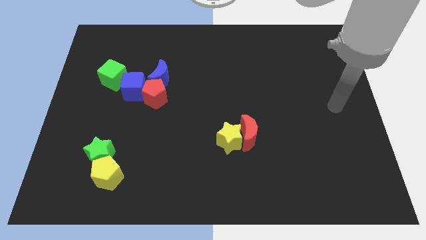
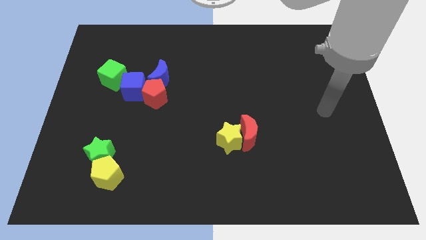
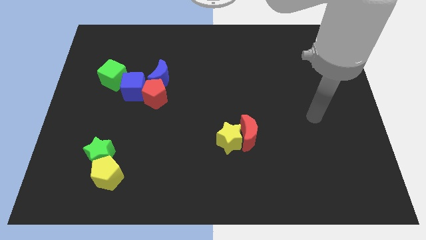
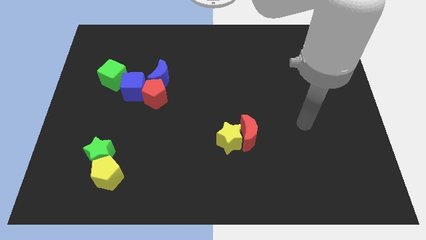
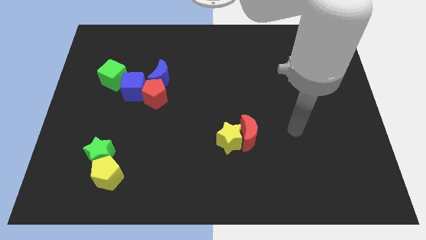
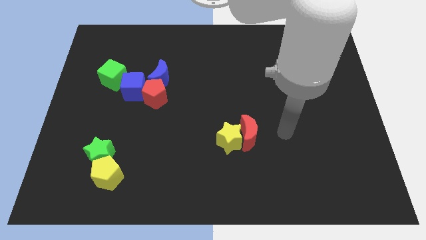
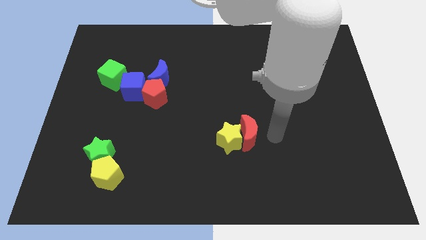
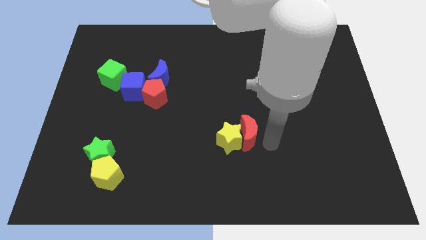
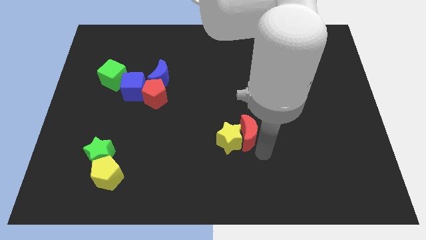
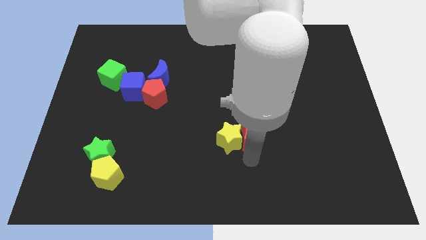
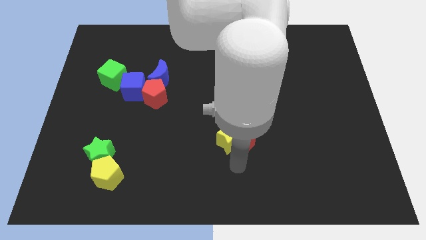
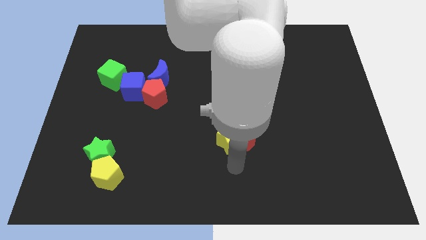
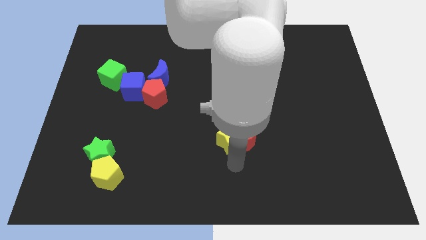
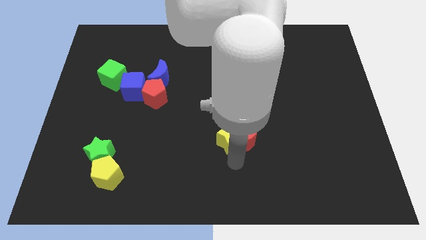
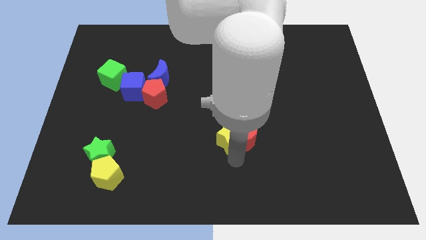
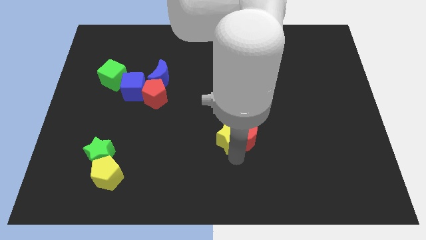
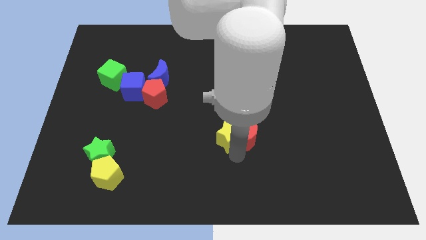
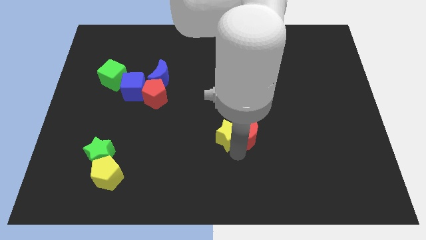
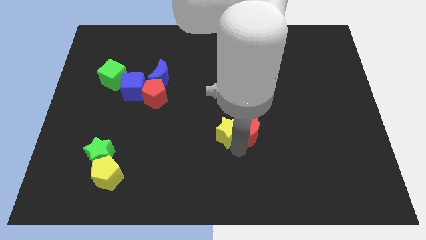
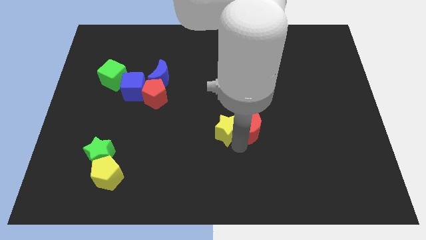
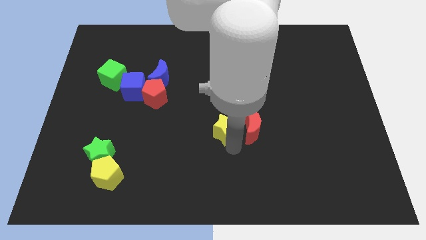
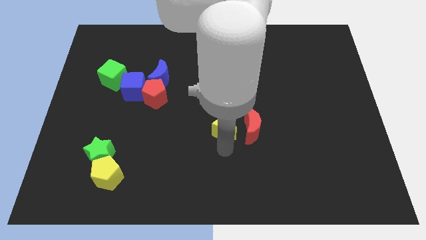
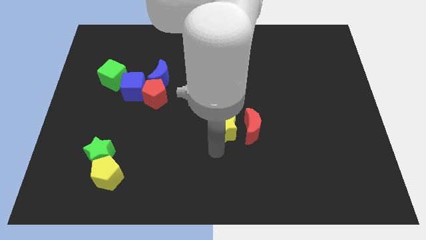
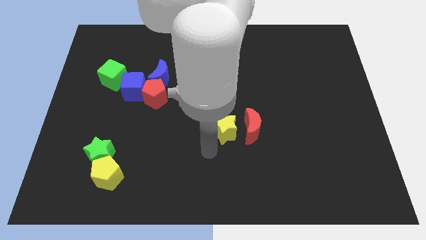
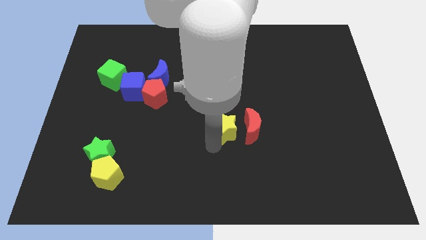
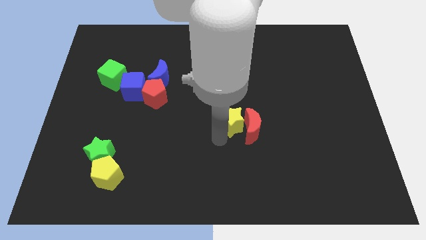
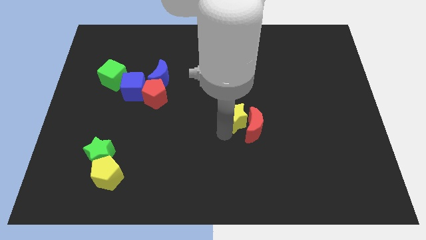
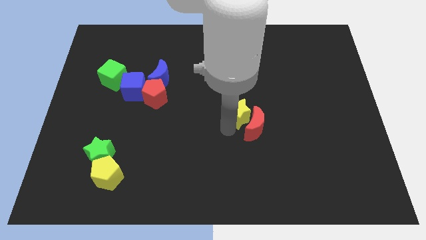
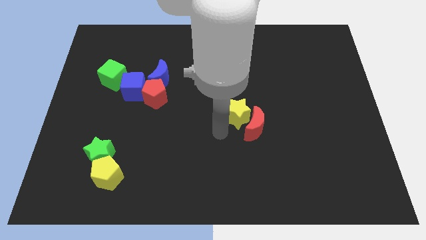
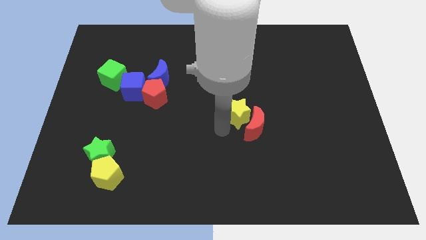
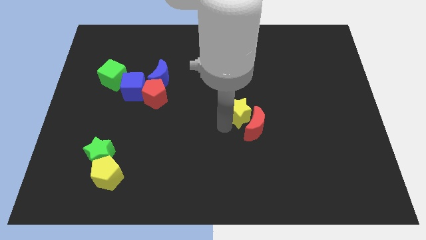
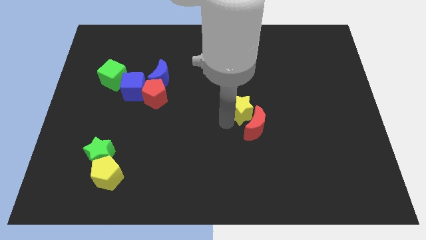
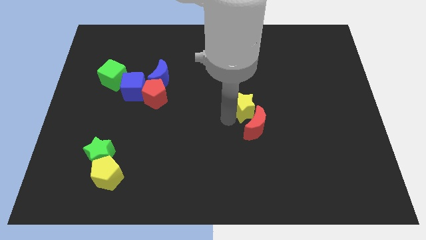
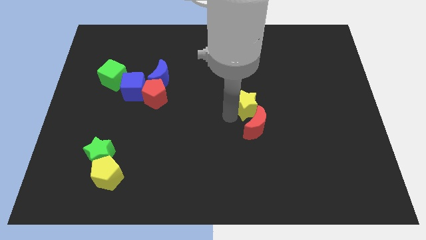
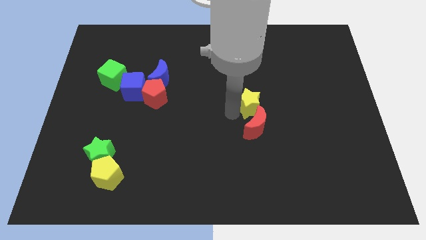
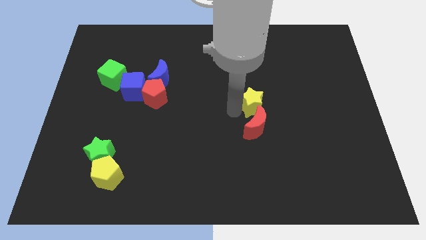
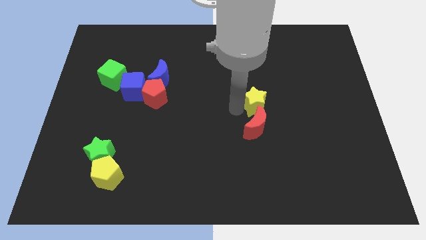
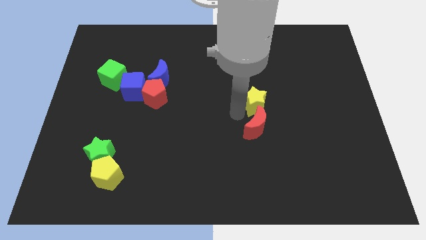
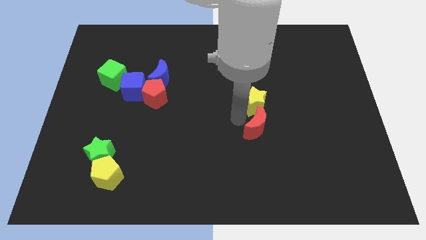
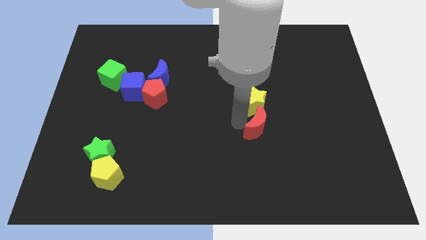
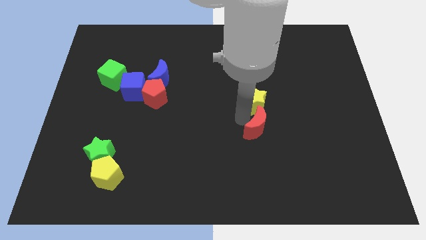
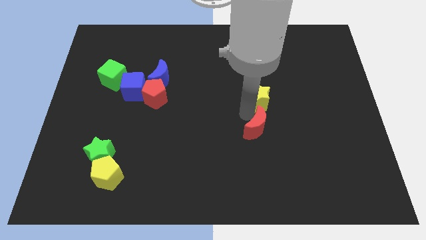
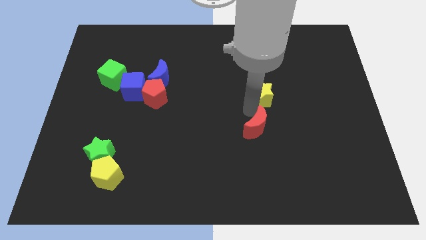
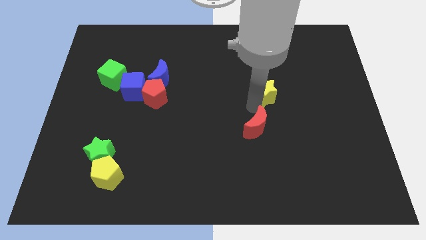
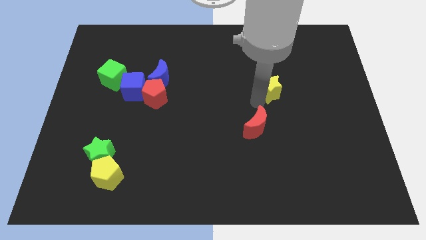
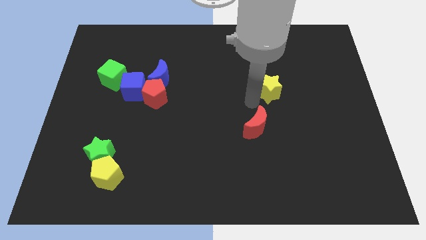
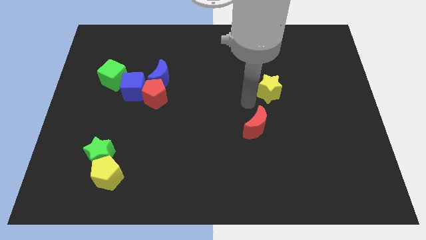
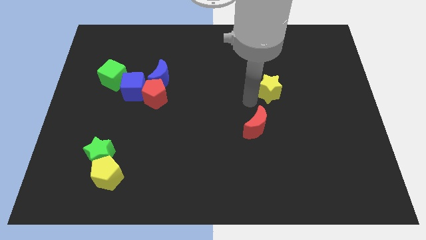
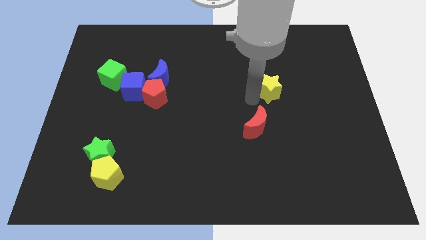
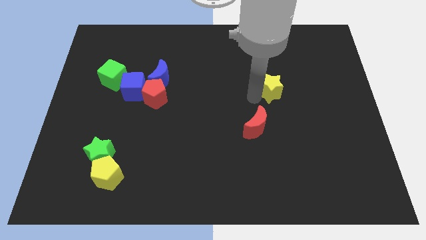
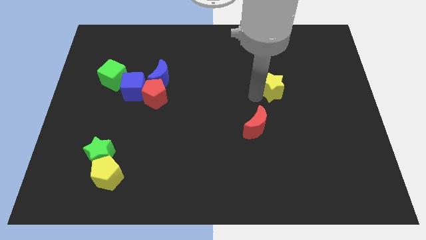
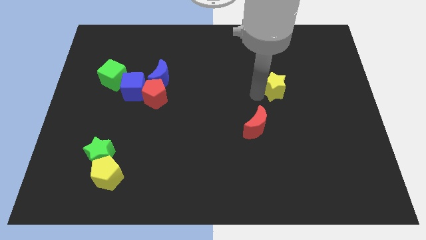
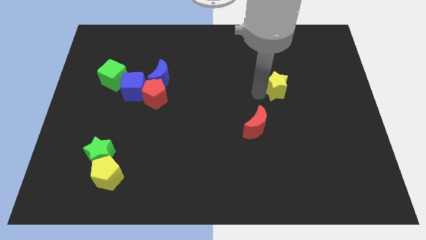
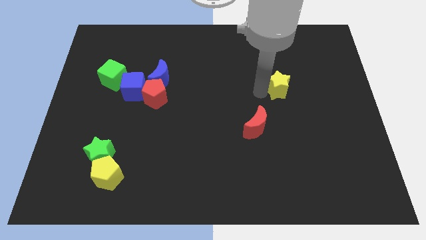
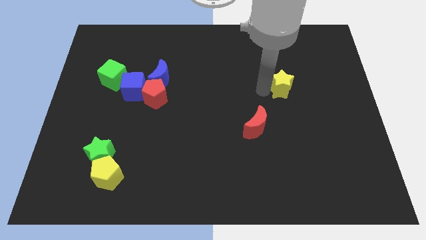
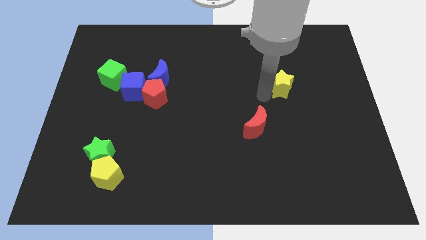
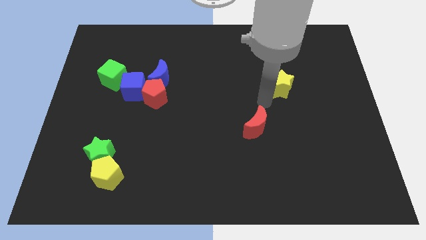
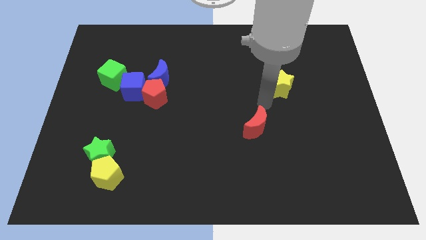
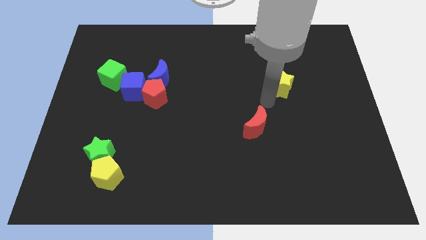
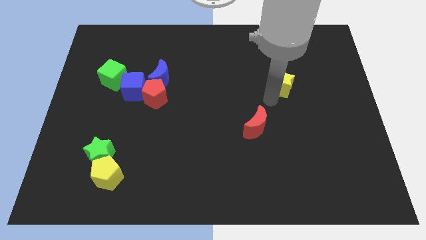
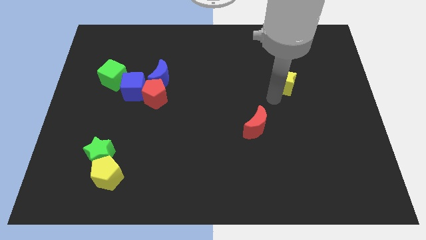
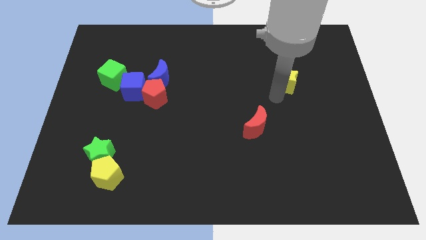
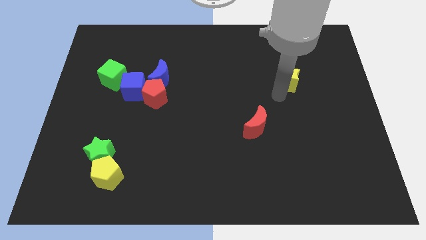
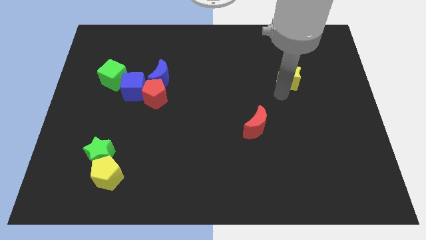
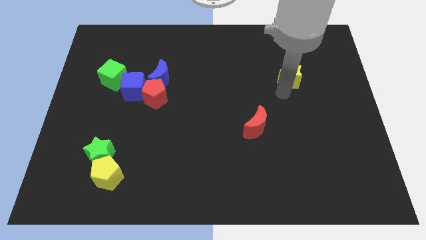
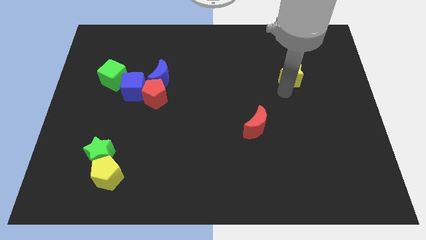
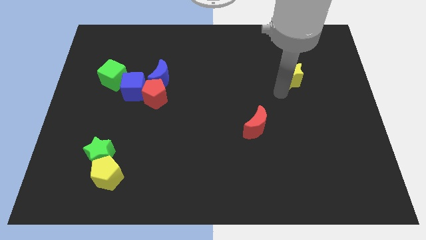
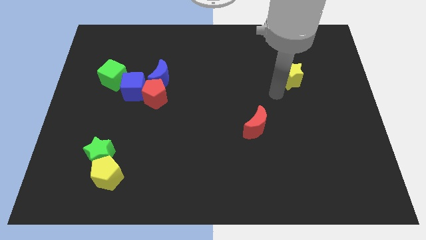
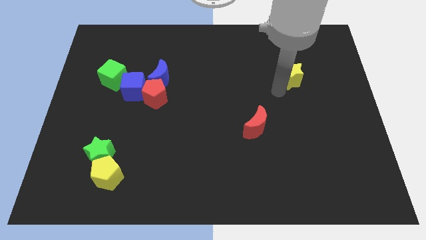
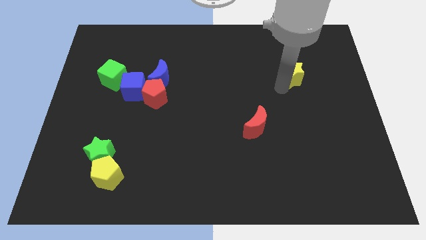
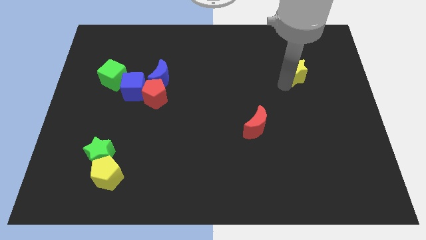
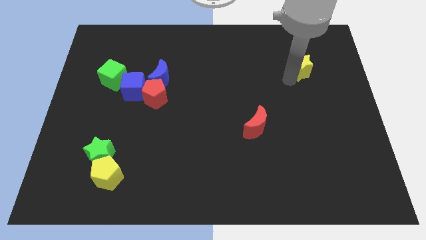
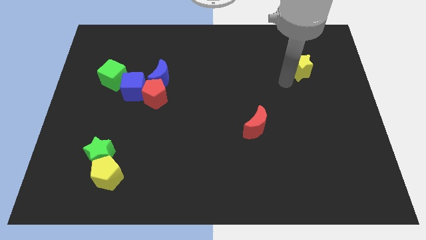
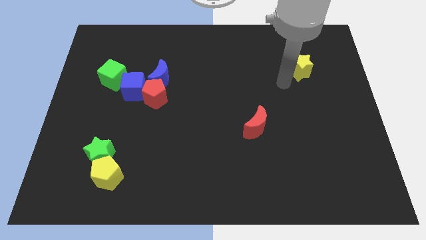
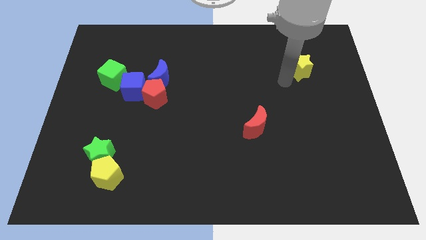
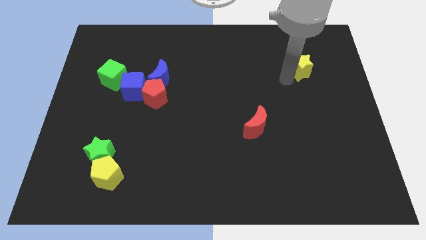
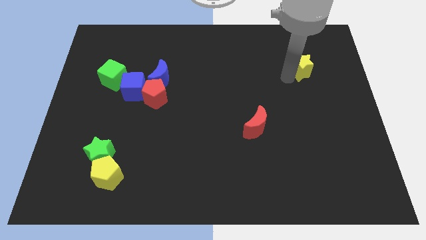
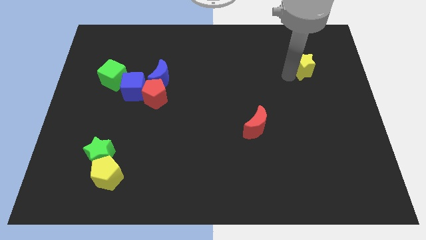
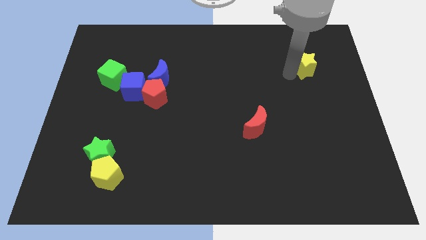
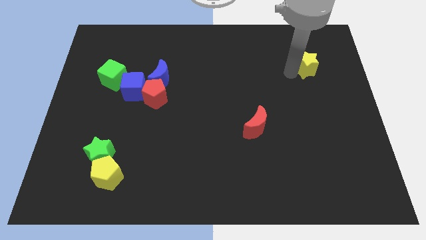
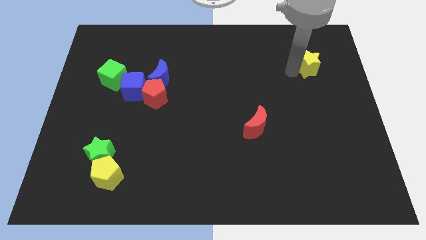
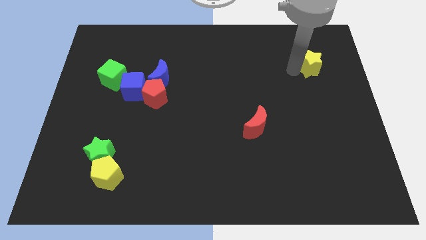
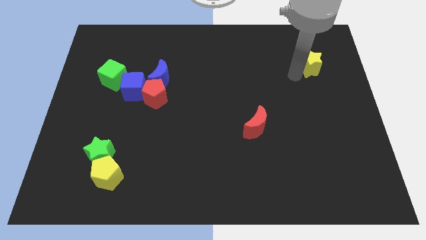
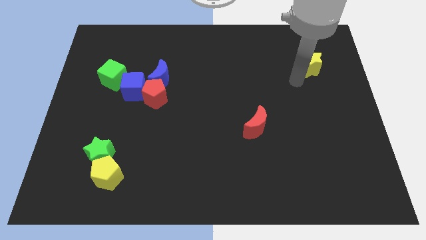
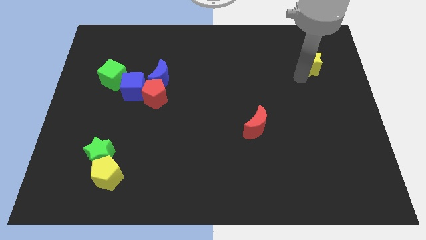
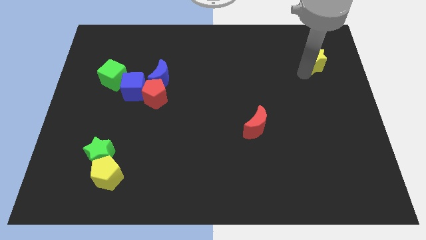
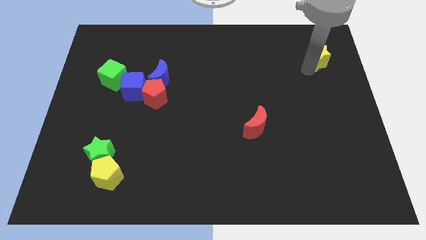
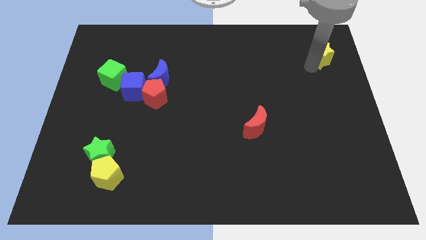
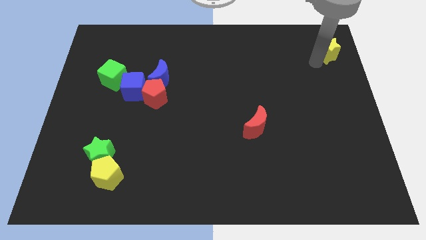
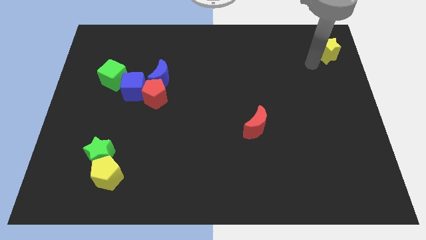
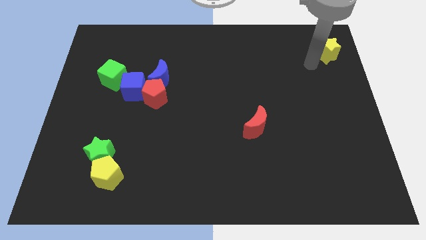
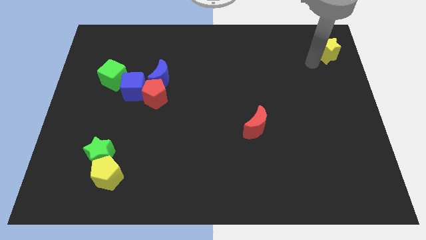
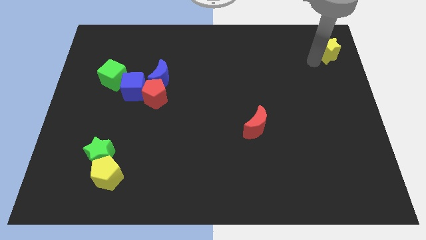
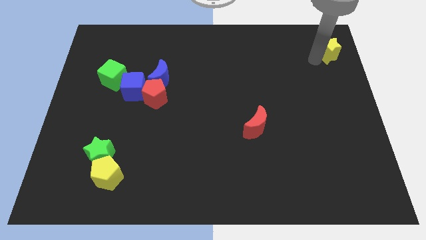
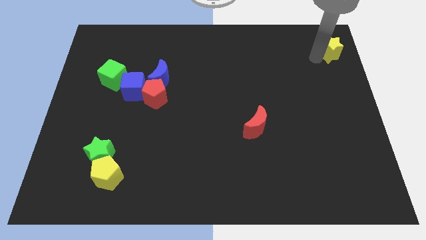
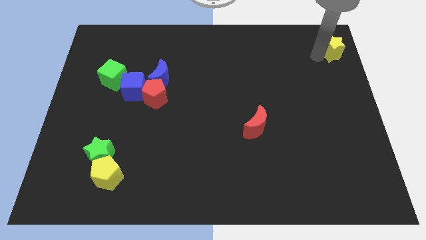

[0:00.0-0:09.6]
move the yellow star to the top right of the board
